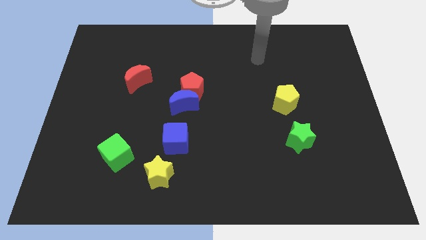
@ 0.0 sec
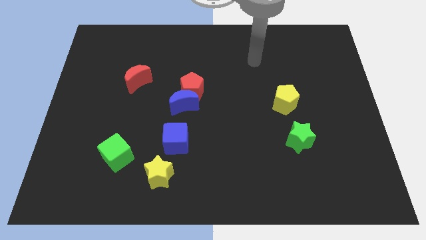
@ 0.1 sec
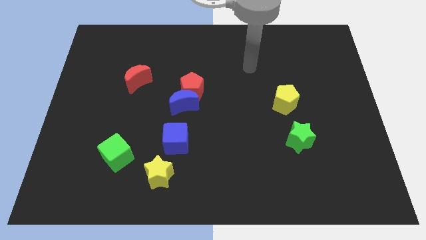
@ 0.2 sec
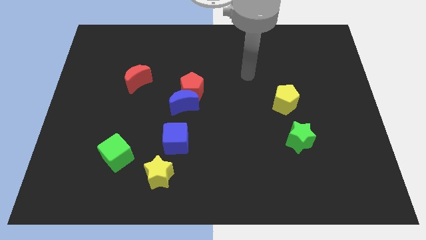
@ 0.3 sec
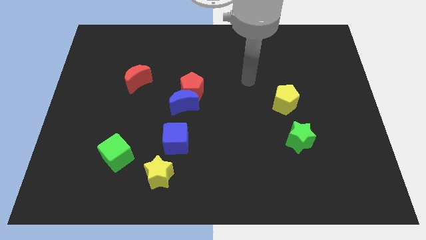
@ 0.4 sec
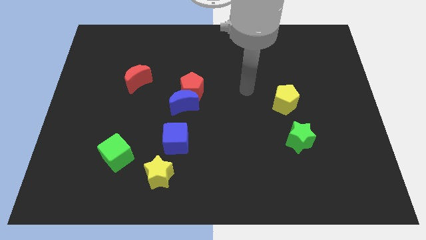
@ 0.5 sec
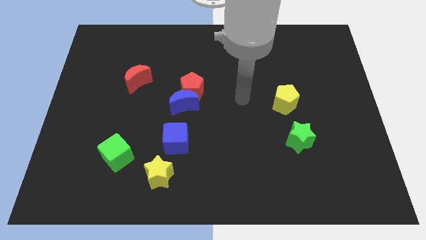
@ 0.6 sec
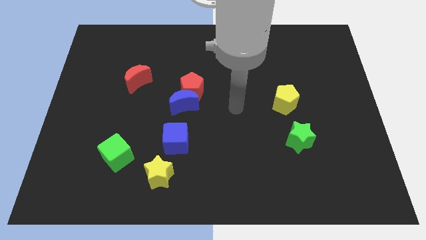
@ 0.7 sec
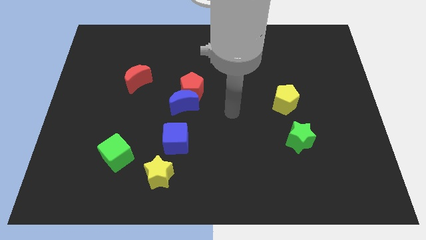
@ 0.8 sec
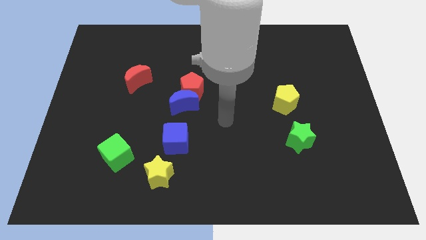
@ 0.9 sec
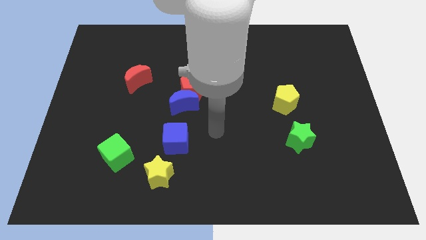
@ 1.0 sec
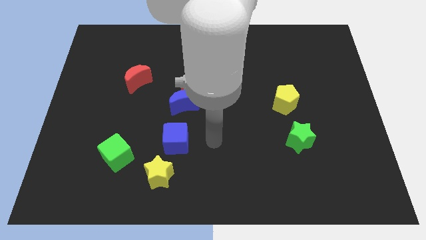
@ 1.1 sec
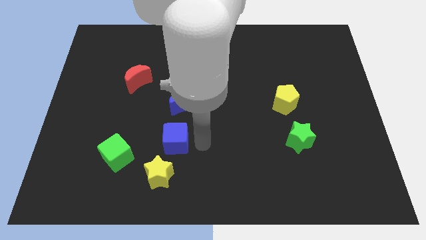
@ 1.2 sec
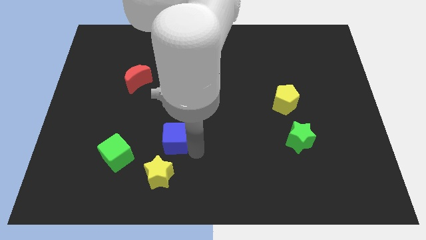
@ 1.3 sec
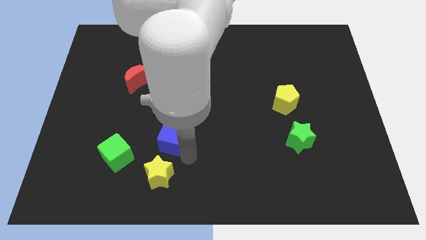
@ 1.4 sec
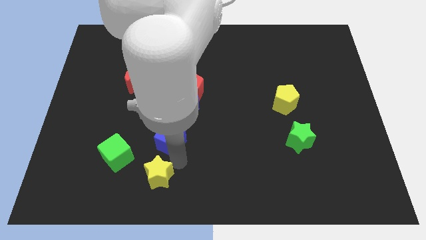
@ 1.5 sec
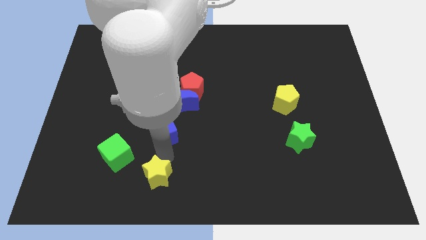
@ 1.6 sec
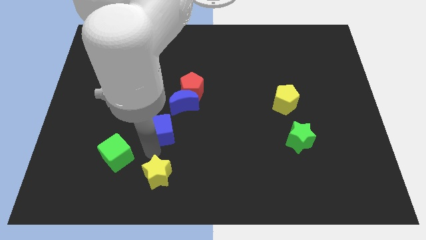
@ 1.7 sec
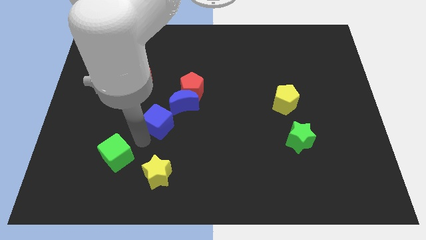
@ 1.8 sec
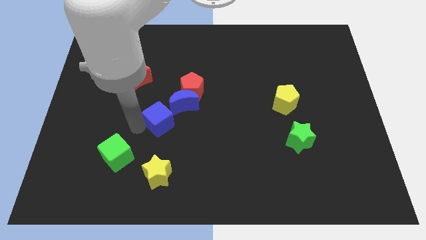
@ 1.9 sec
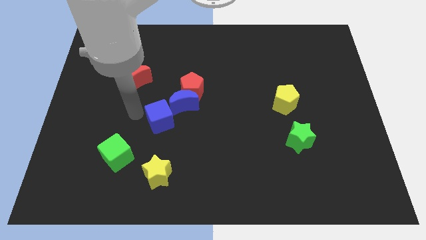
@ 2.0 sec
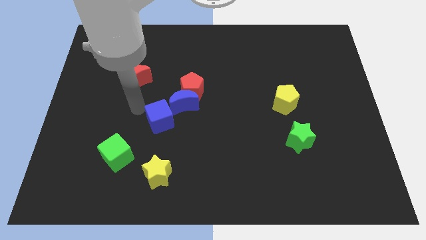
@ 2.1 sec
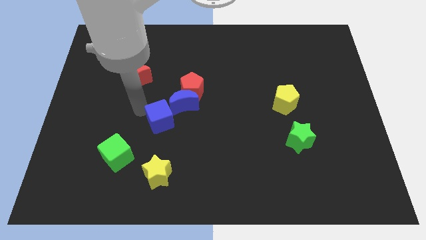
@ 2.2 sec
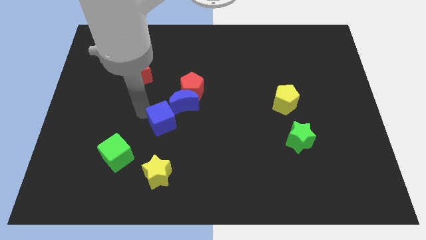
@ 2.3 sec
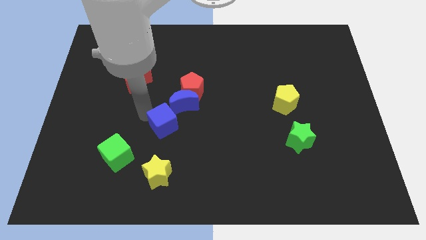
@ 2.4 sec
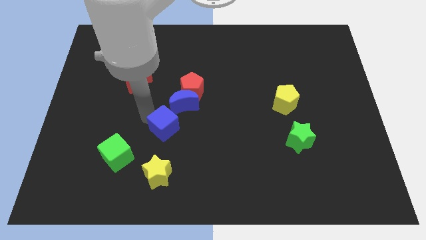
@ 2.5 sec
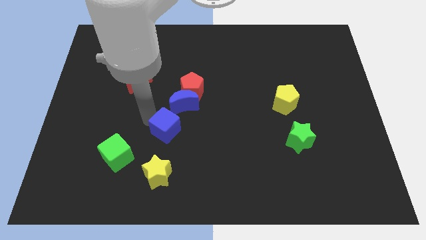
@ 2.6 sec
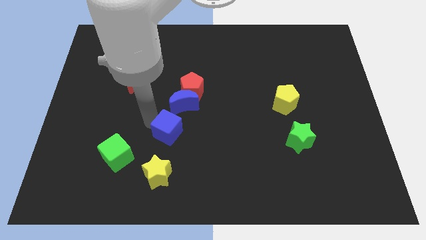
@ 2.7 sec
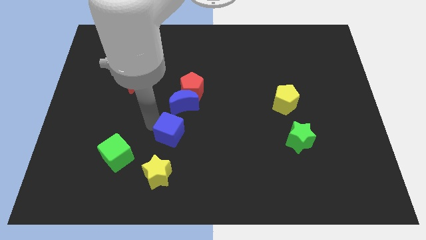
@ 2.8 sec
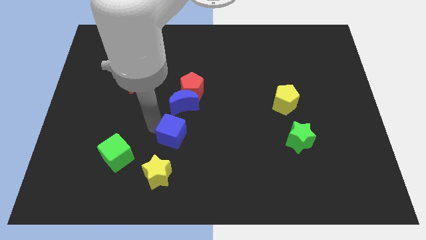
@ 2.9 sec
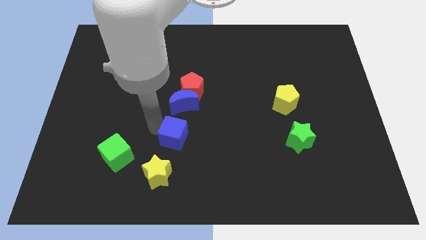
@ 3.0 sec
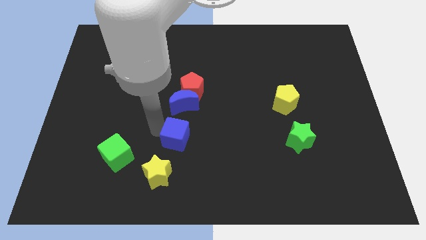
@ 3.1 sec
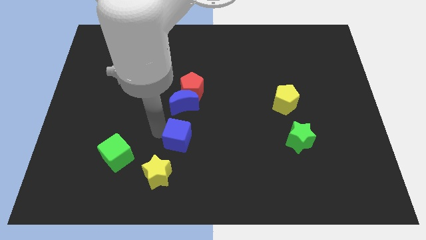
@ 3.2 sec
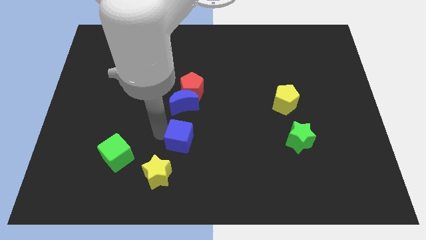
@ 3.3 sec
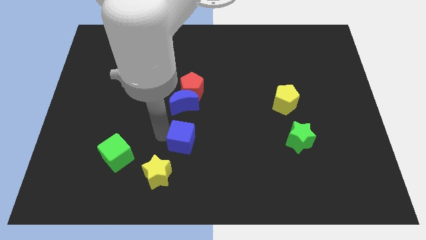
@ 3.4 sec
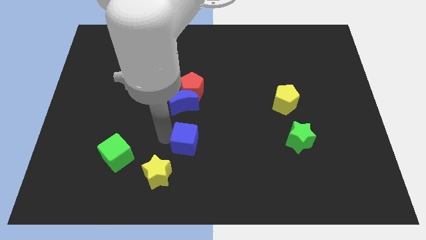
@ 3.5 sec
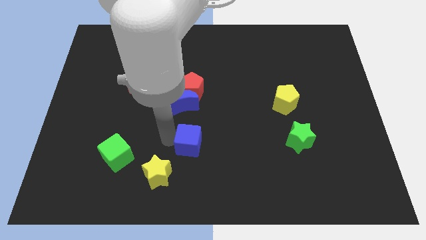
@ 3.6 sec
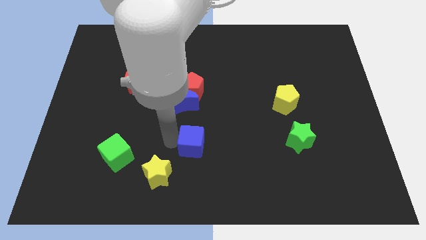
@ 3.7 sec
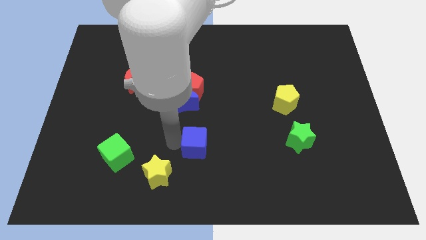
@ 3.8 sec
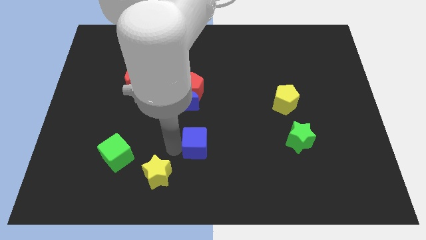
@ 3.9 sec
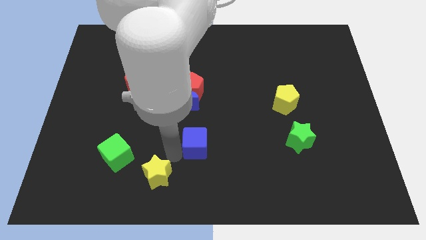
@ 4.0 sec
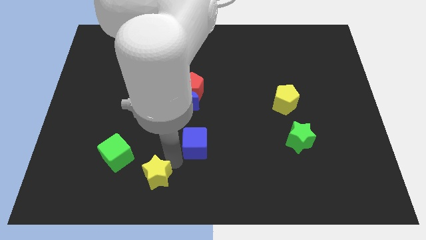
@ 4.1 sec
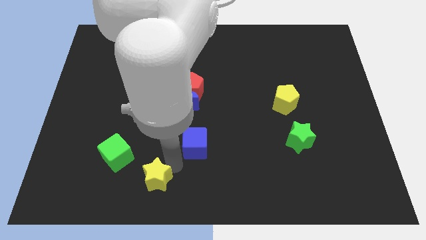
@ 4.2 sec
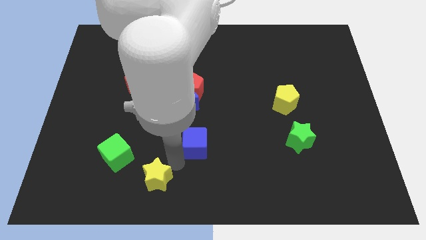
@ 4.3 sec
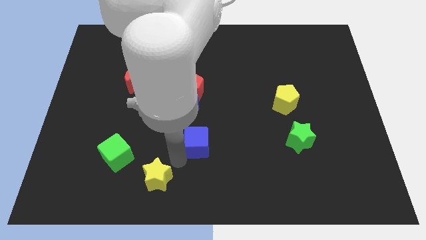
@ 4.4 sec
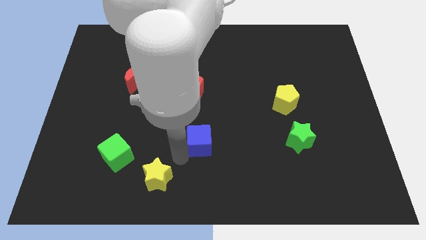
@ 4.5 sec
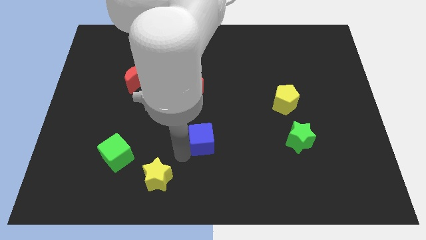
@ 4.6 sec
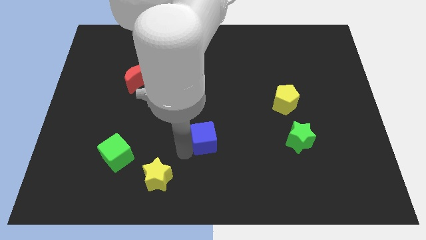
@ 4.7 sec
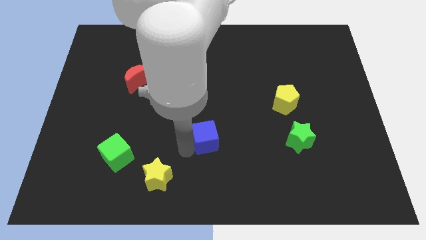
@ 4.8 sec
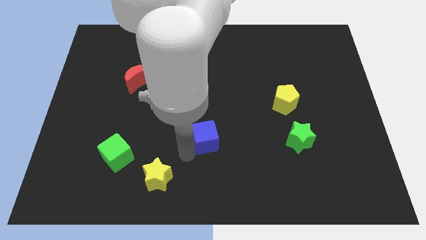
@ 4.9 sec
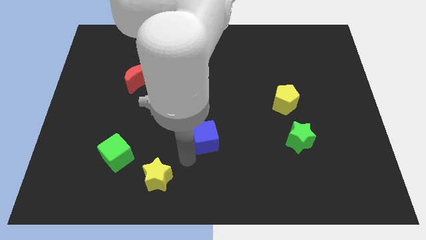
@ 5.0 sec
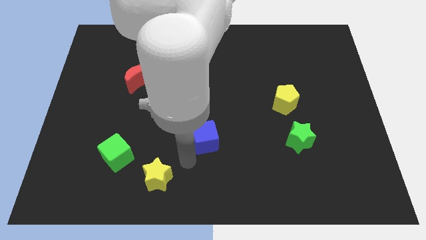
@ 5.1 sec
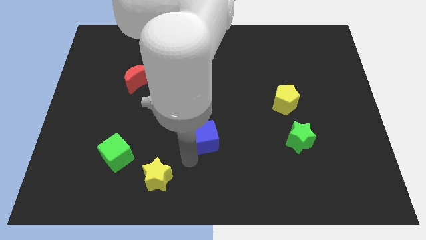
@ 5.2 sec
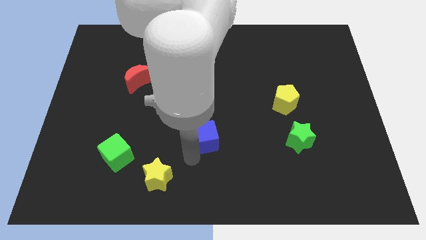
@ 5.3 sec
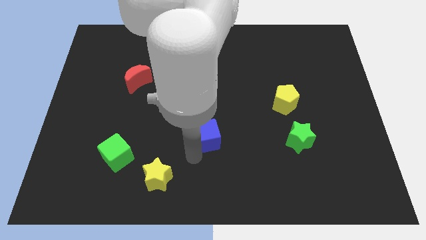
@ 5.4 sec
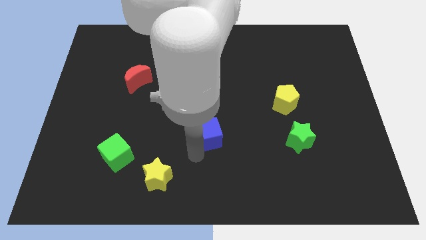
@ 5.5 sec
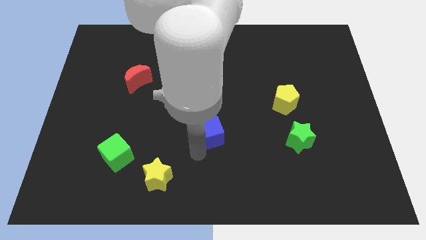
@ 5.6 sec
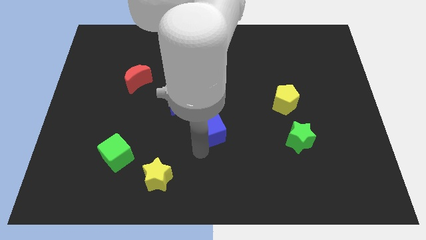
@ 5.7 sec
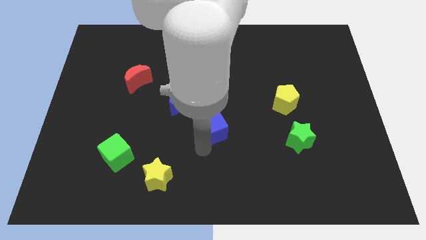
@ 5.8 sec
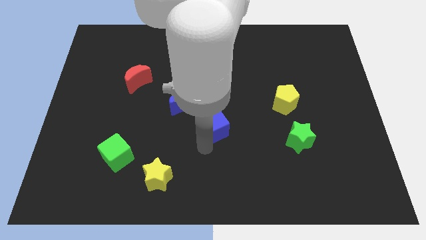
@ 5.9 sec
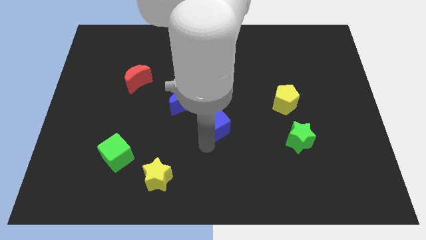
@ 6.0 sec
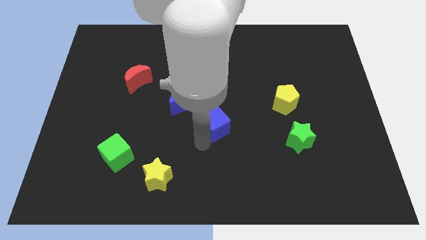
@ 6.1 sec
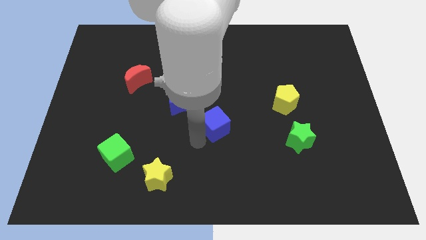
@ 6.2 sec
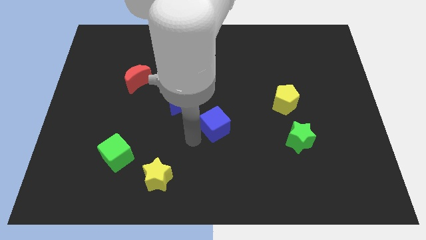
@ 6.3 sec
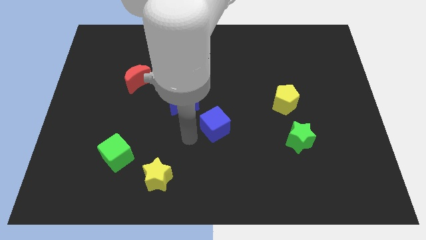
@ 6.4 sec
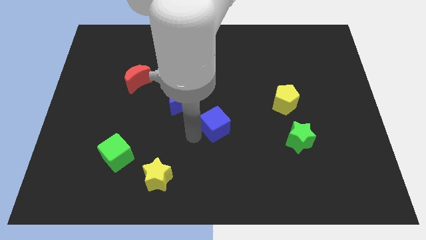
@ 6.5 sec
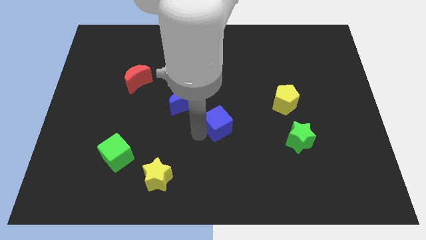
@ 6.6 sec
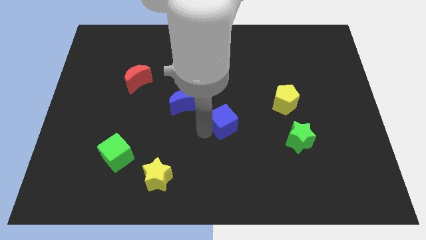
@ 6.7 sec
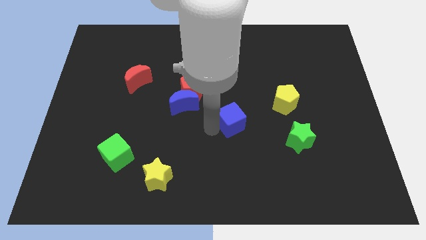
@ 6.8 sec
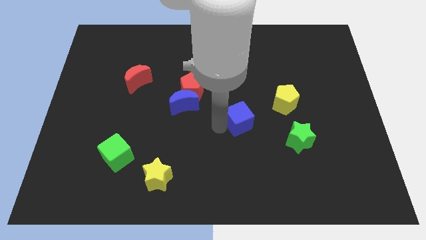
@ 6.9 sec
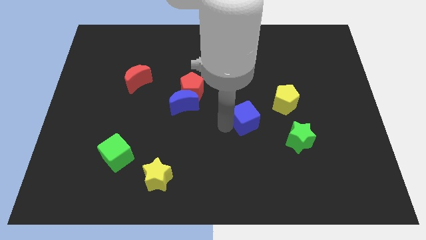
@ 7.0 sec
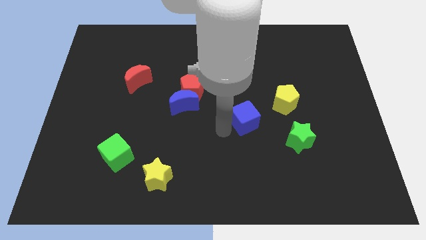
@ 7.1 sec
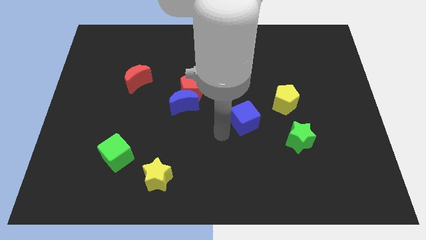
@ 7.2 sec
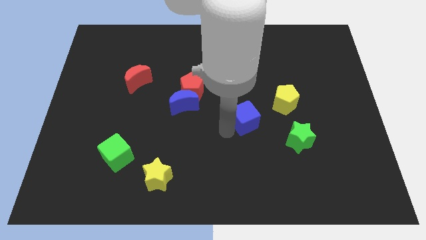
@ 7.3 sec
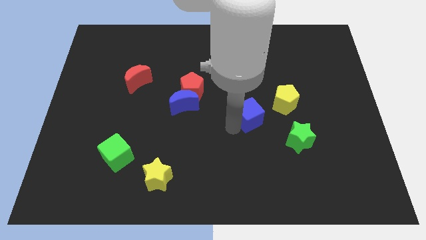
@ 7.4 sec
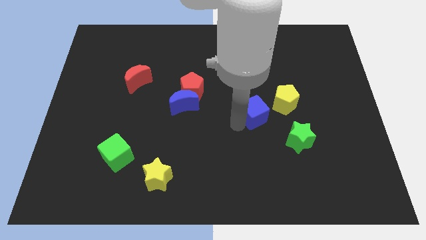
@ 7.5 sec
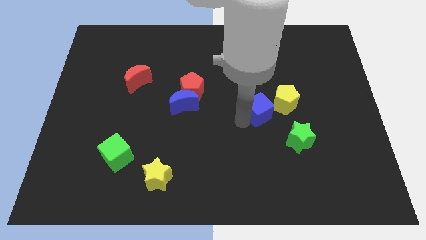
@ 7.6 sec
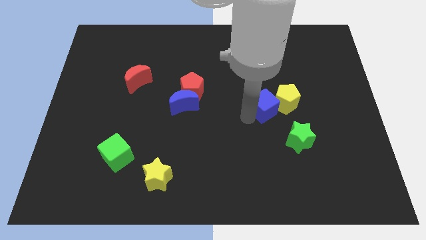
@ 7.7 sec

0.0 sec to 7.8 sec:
push the blue cube towards the yellow pentagon
